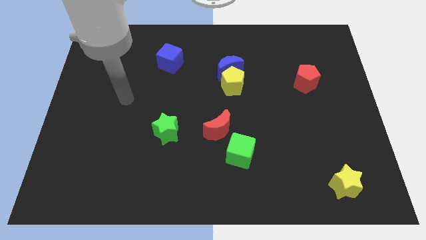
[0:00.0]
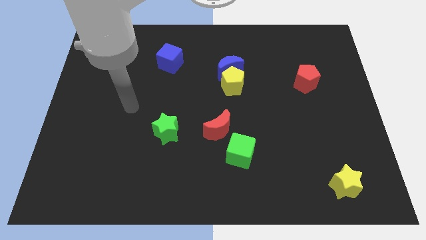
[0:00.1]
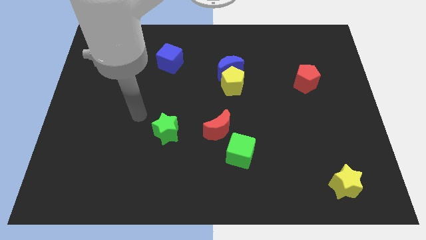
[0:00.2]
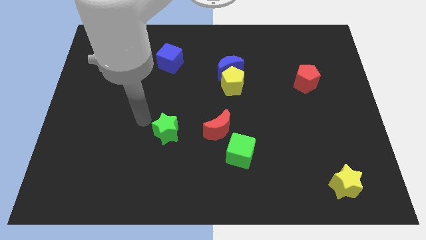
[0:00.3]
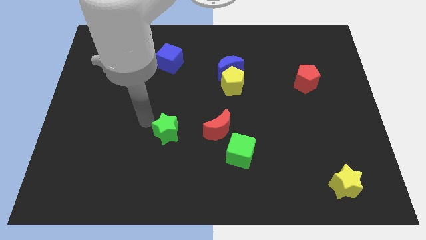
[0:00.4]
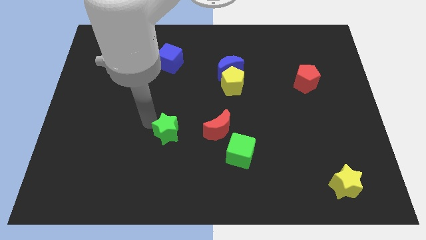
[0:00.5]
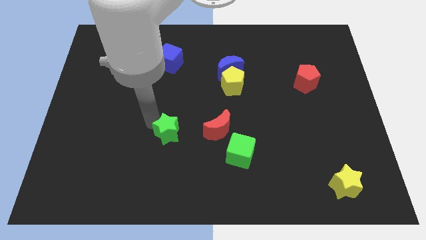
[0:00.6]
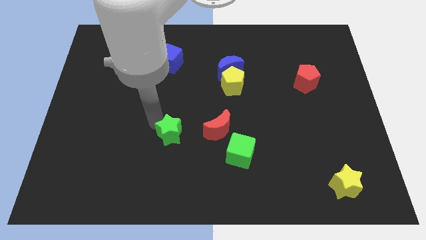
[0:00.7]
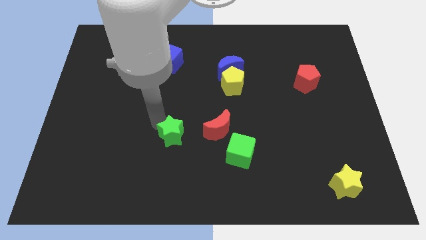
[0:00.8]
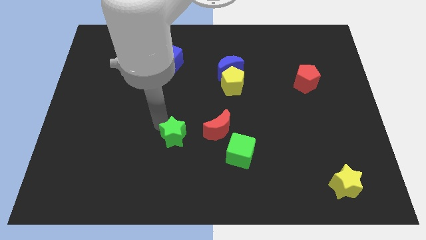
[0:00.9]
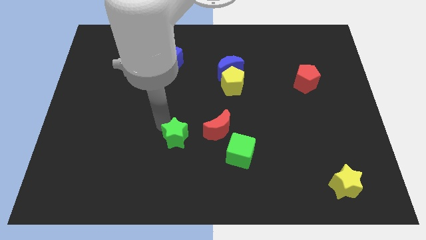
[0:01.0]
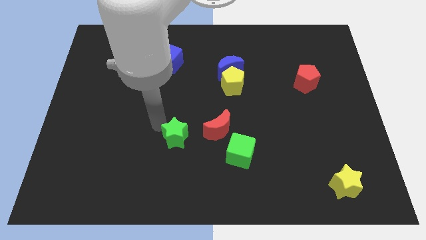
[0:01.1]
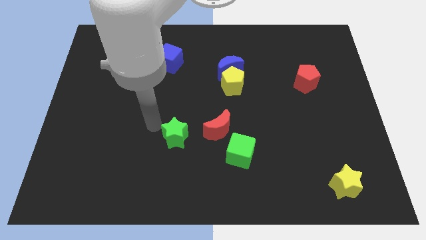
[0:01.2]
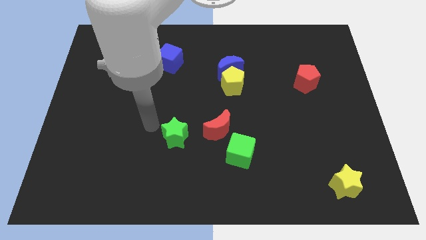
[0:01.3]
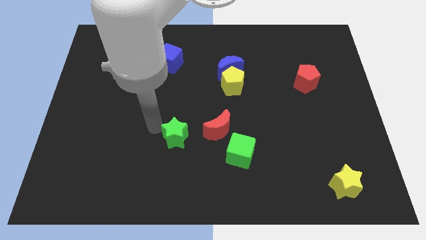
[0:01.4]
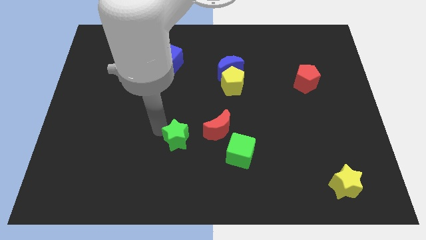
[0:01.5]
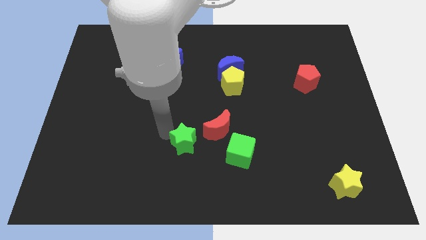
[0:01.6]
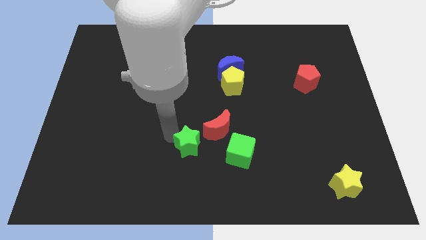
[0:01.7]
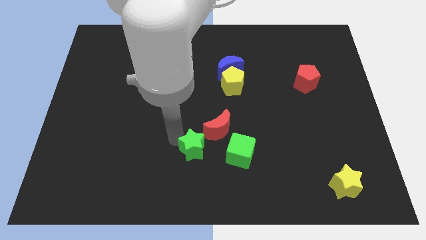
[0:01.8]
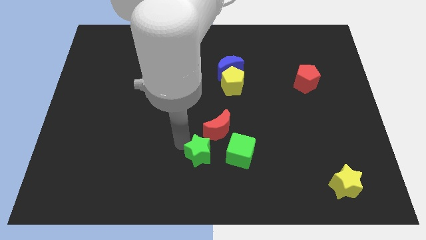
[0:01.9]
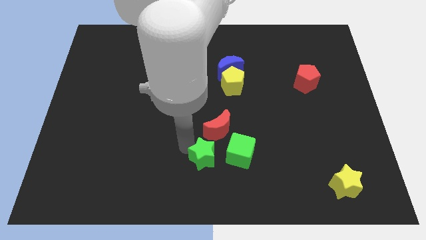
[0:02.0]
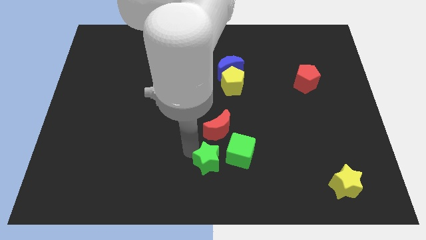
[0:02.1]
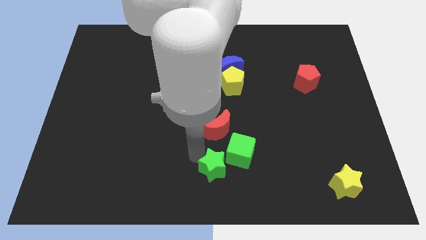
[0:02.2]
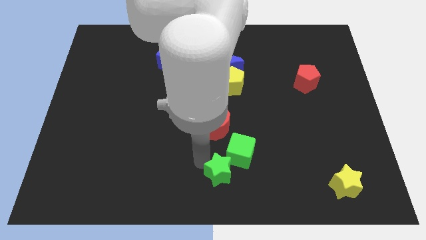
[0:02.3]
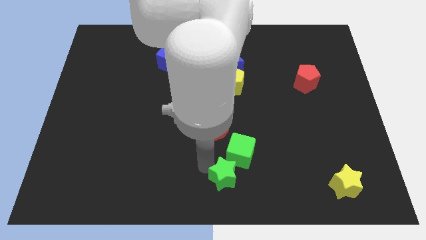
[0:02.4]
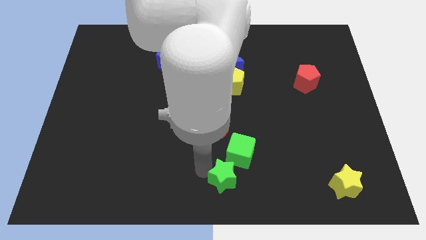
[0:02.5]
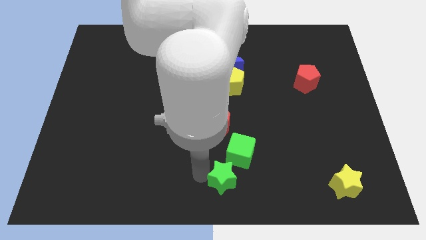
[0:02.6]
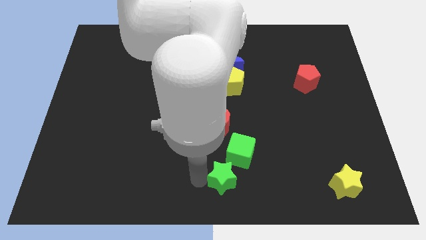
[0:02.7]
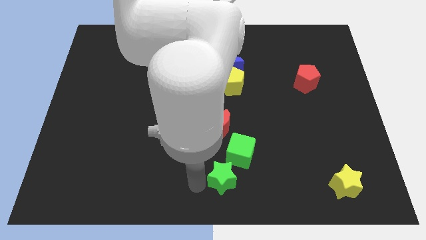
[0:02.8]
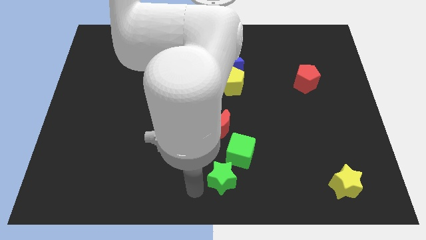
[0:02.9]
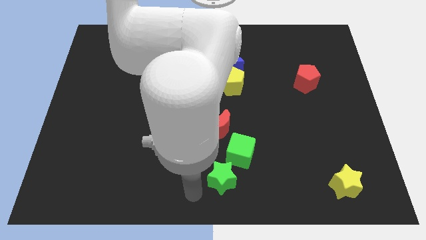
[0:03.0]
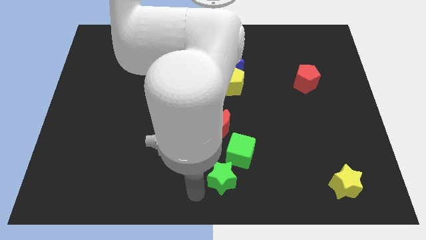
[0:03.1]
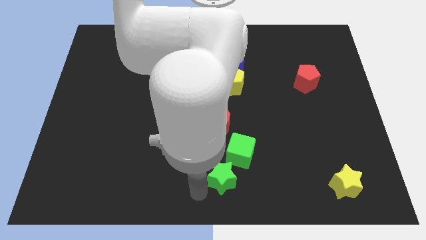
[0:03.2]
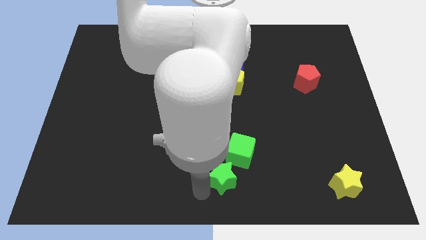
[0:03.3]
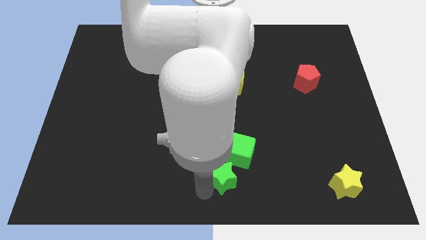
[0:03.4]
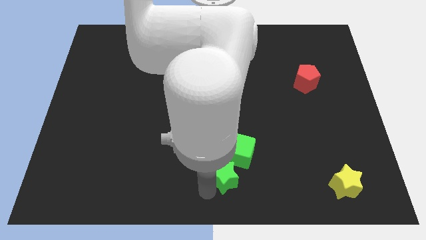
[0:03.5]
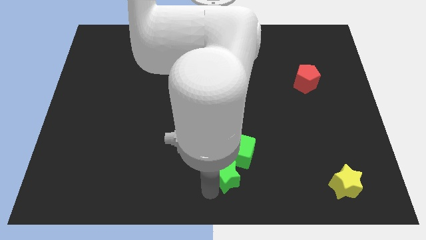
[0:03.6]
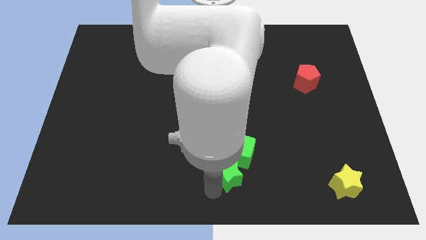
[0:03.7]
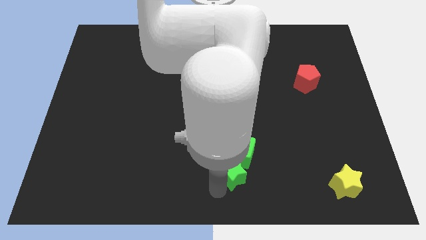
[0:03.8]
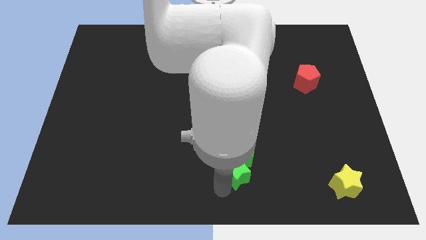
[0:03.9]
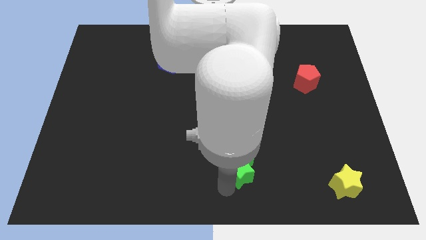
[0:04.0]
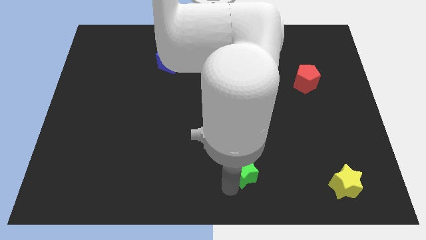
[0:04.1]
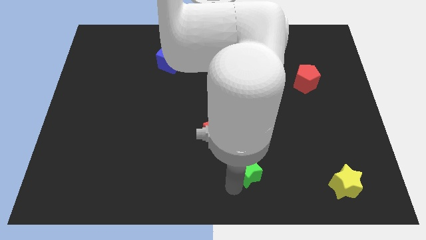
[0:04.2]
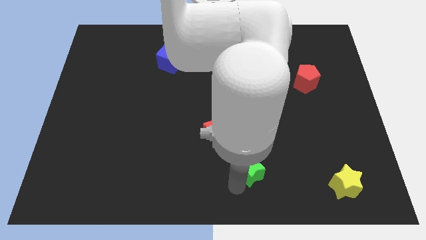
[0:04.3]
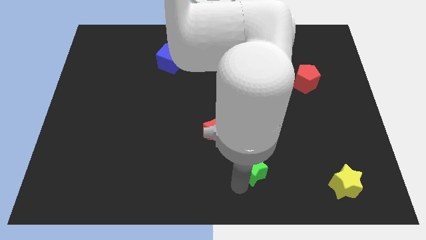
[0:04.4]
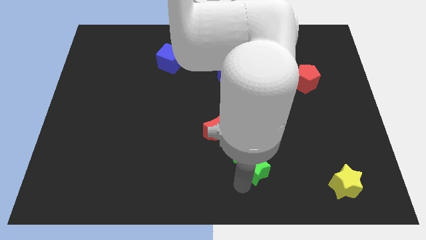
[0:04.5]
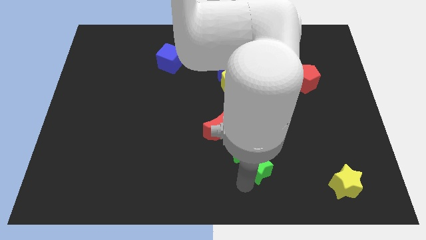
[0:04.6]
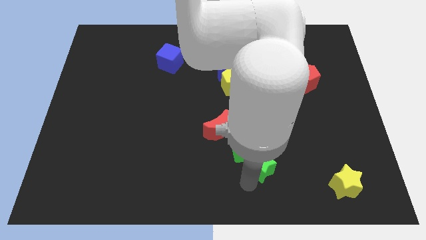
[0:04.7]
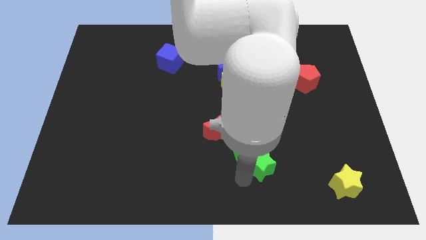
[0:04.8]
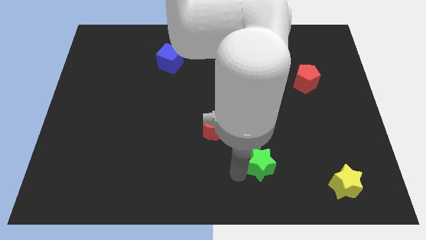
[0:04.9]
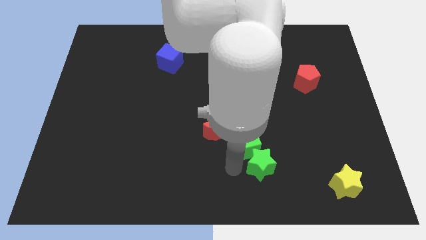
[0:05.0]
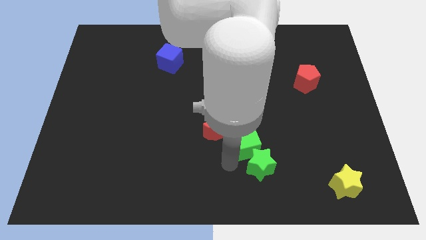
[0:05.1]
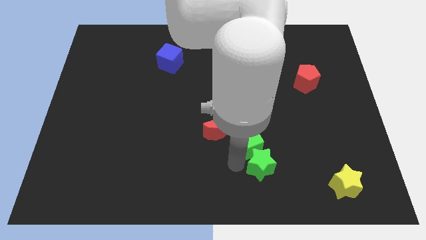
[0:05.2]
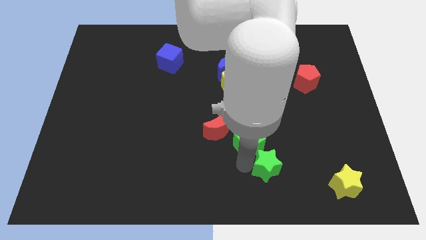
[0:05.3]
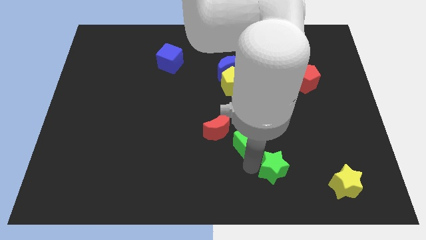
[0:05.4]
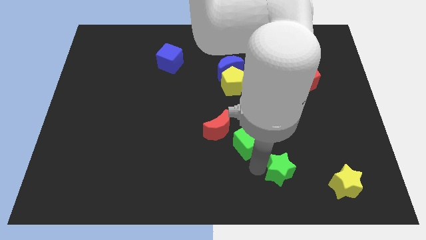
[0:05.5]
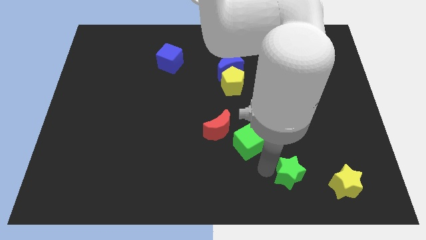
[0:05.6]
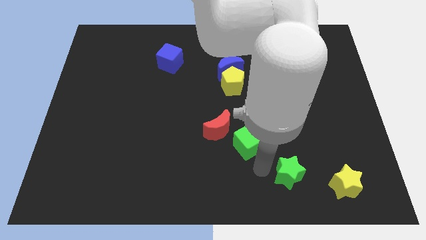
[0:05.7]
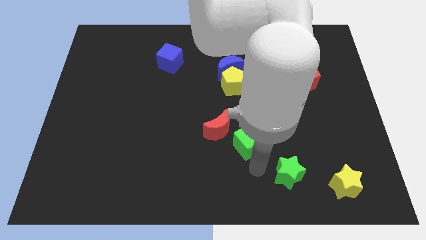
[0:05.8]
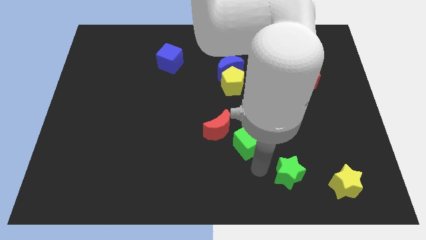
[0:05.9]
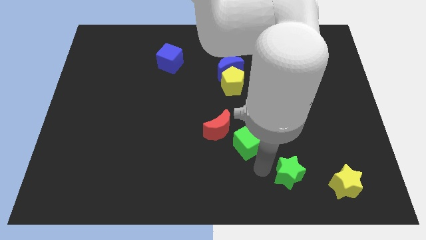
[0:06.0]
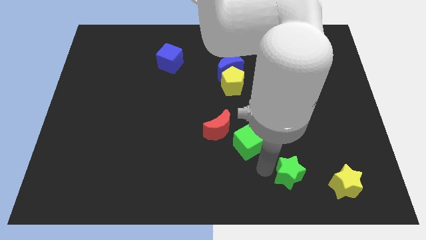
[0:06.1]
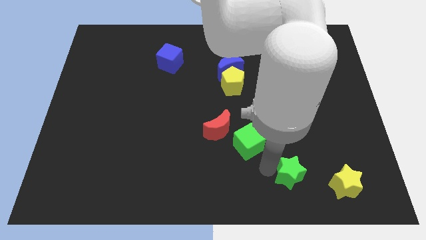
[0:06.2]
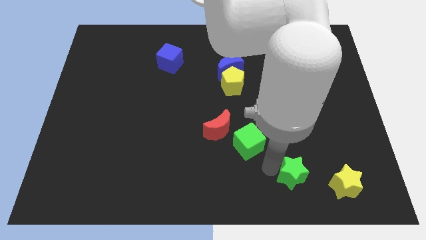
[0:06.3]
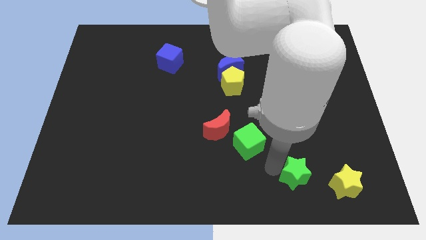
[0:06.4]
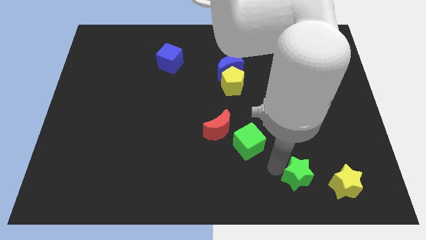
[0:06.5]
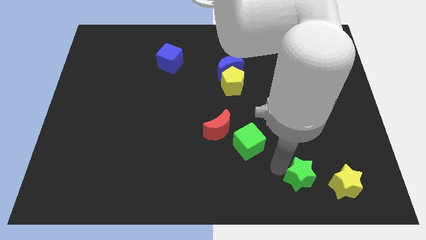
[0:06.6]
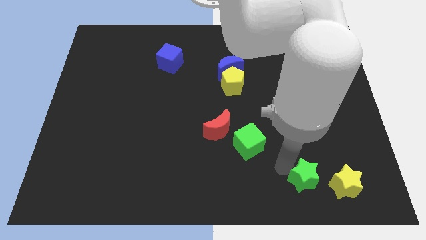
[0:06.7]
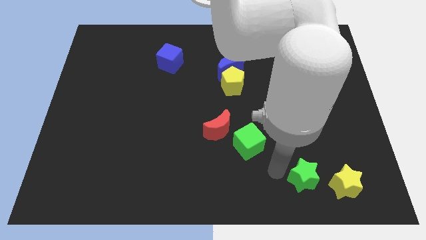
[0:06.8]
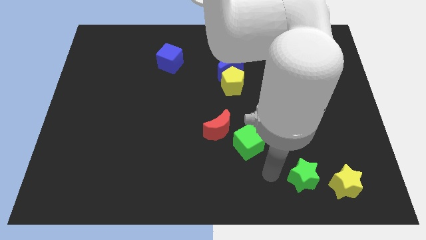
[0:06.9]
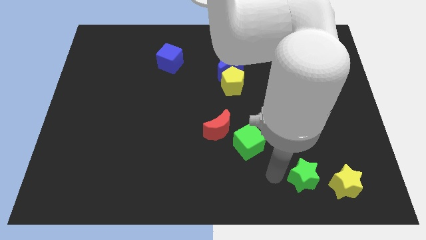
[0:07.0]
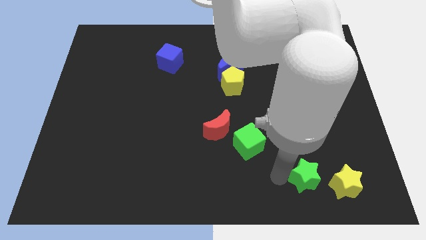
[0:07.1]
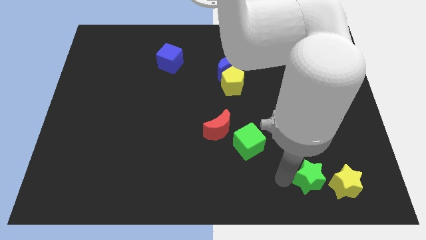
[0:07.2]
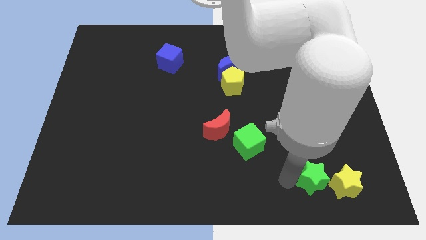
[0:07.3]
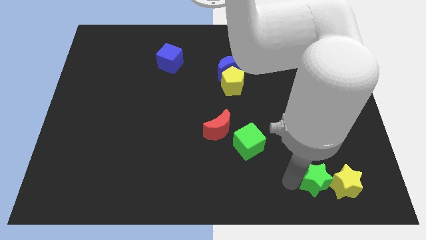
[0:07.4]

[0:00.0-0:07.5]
push the green star next to the yellow star
